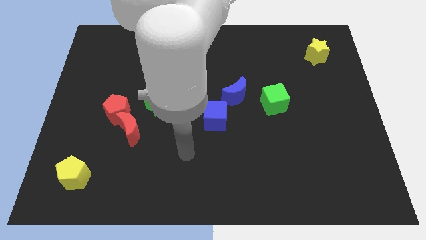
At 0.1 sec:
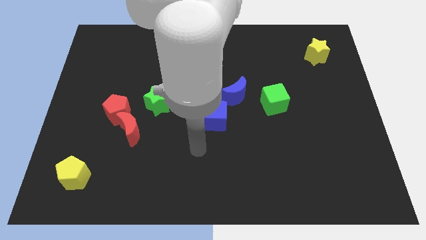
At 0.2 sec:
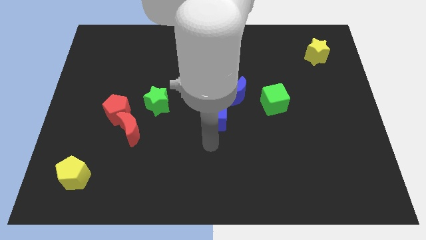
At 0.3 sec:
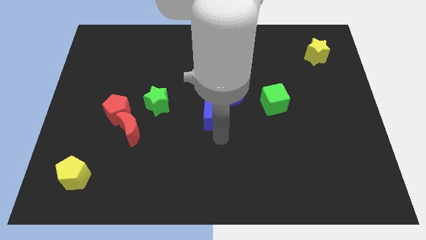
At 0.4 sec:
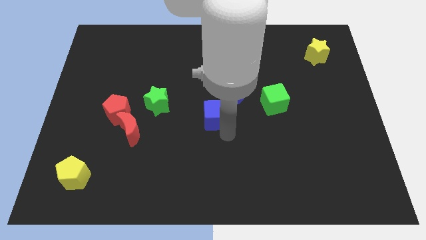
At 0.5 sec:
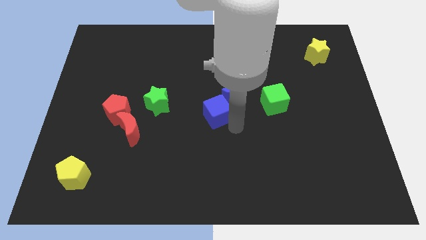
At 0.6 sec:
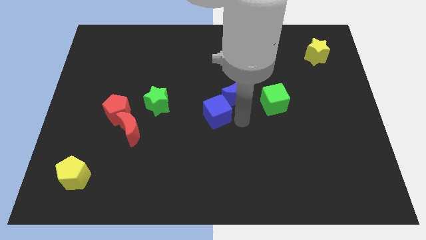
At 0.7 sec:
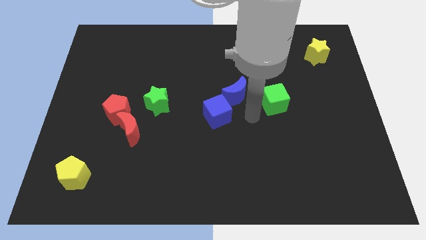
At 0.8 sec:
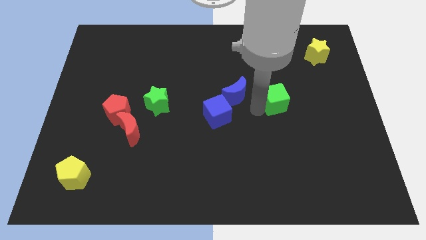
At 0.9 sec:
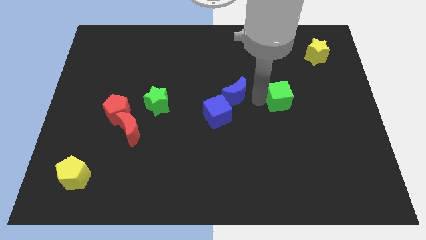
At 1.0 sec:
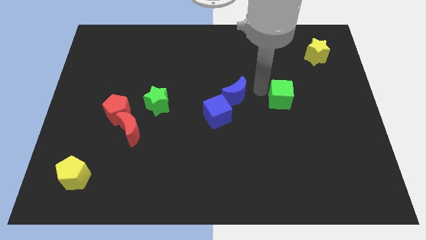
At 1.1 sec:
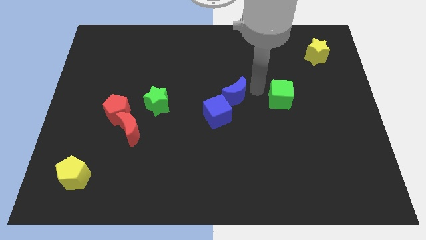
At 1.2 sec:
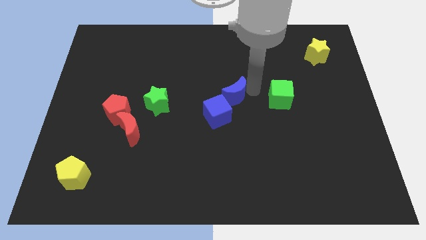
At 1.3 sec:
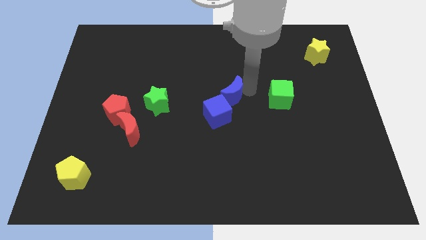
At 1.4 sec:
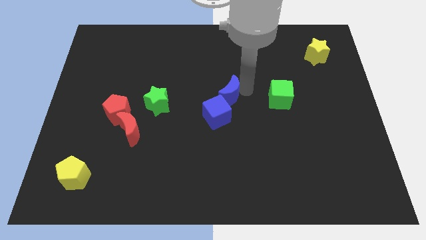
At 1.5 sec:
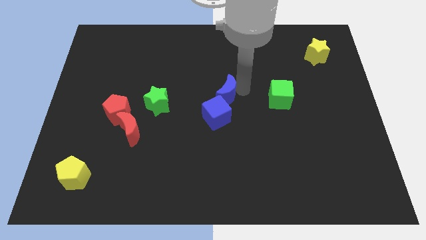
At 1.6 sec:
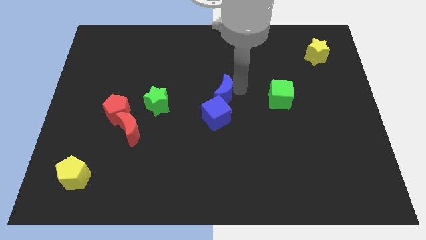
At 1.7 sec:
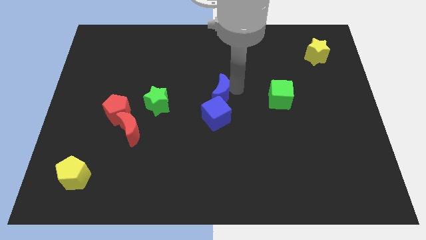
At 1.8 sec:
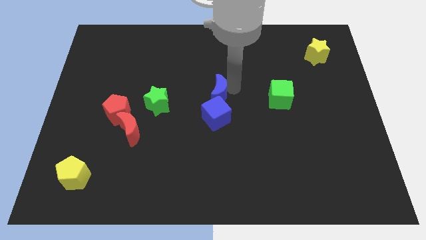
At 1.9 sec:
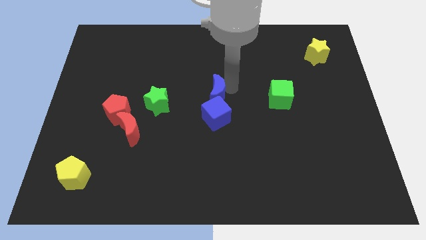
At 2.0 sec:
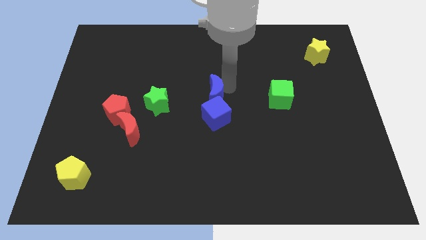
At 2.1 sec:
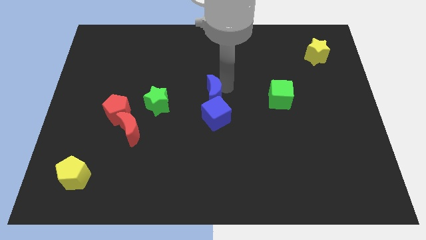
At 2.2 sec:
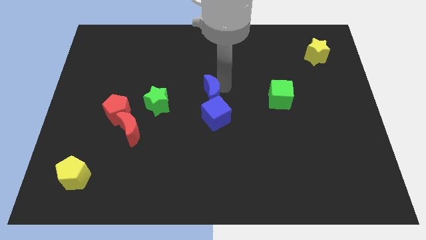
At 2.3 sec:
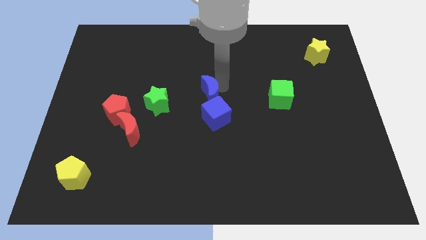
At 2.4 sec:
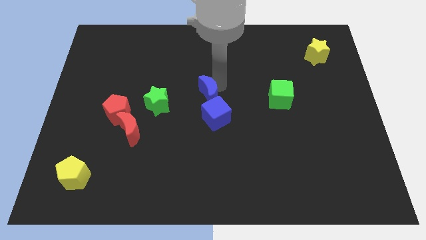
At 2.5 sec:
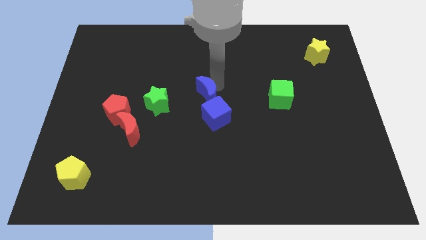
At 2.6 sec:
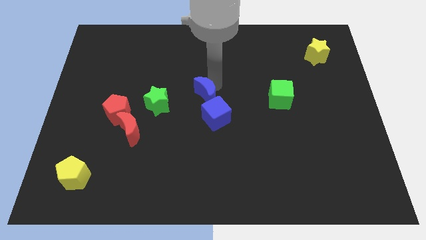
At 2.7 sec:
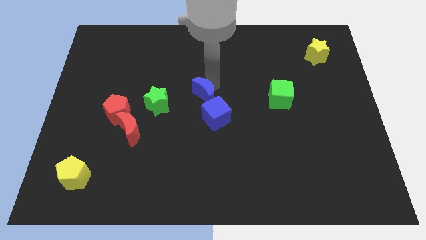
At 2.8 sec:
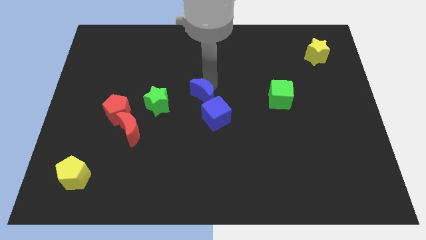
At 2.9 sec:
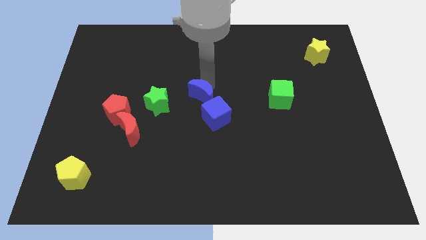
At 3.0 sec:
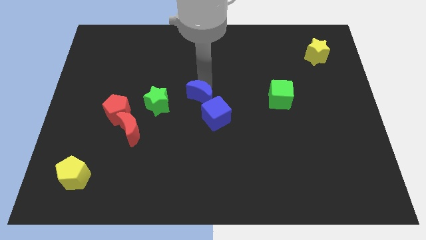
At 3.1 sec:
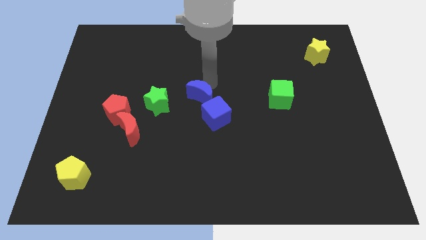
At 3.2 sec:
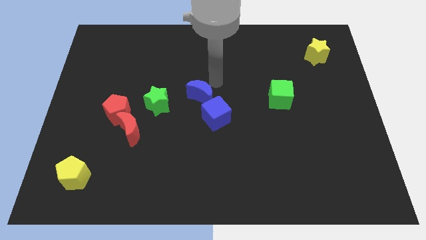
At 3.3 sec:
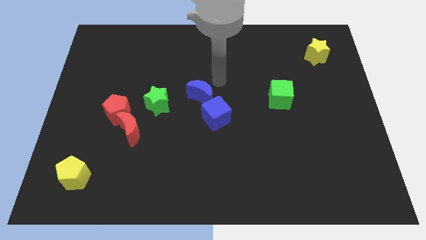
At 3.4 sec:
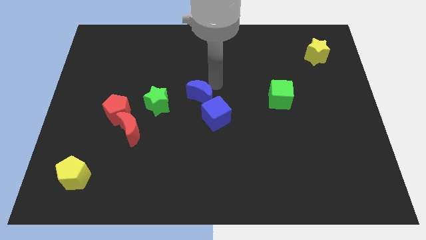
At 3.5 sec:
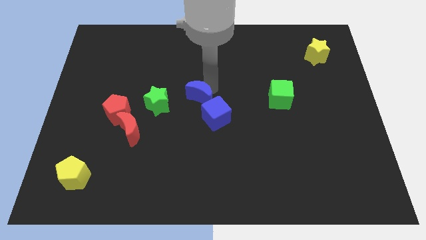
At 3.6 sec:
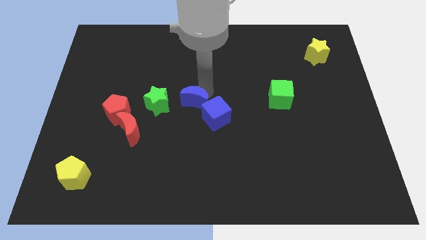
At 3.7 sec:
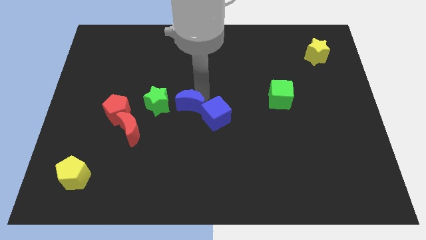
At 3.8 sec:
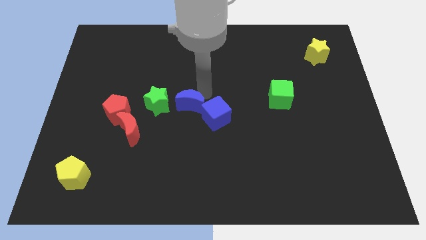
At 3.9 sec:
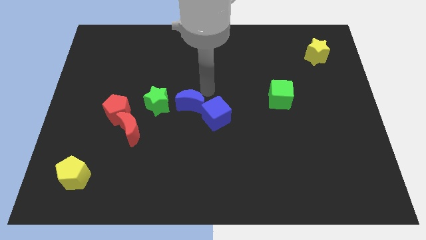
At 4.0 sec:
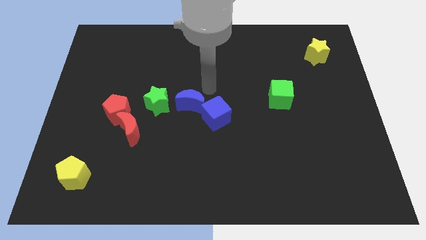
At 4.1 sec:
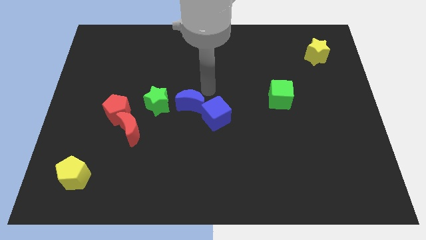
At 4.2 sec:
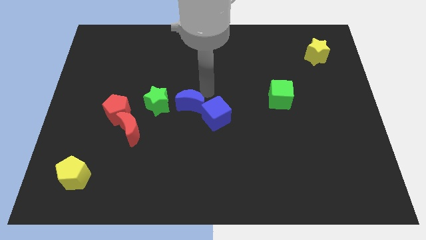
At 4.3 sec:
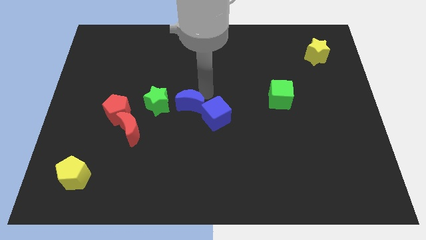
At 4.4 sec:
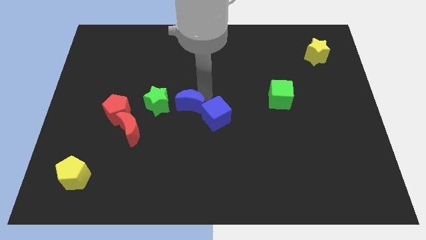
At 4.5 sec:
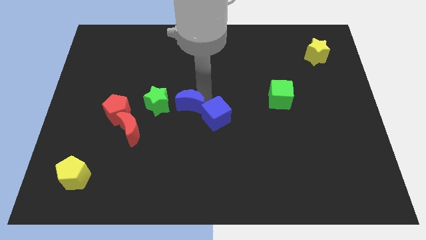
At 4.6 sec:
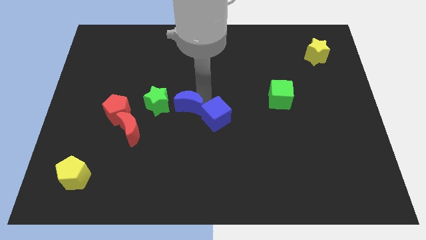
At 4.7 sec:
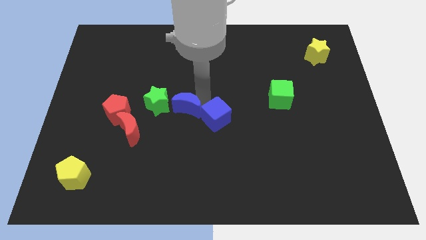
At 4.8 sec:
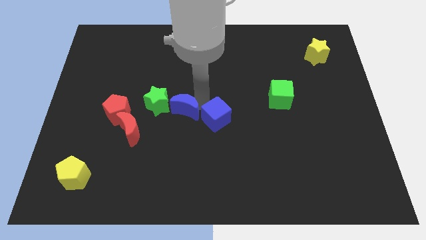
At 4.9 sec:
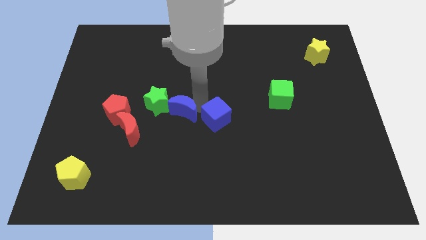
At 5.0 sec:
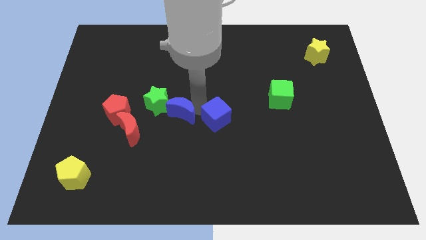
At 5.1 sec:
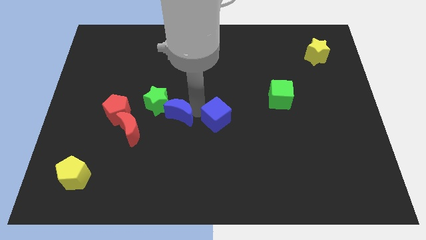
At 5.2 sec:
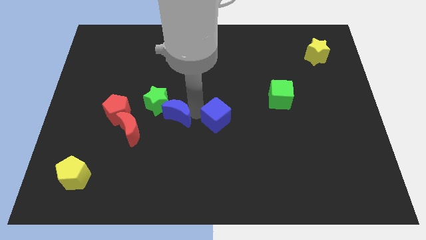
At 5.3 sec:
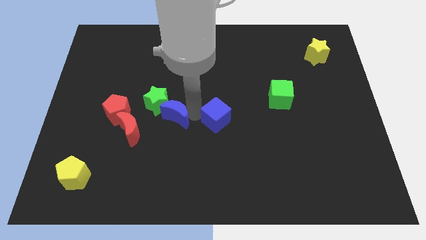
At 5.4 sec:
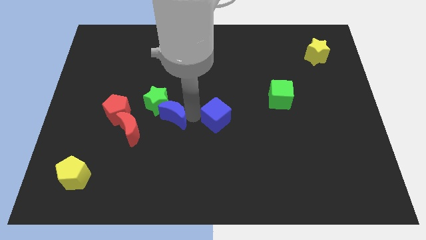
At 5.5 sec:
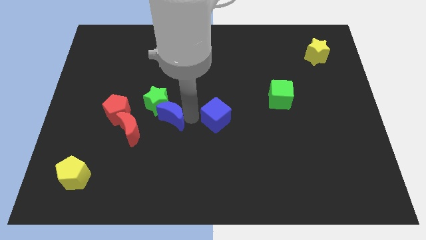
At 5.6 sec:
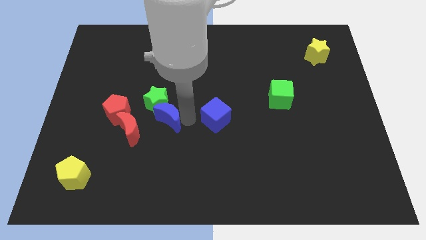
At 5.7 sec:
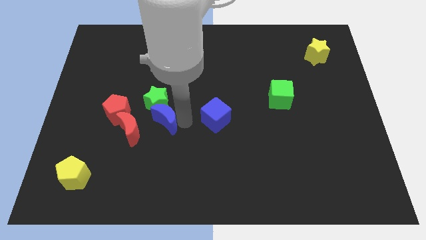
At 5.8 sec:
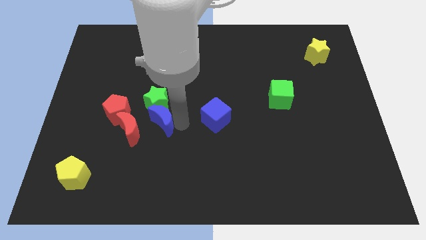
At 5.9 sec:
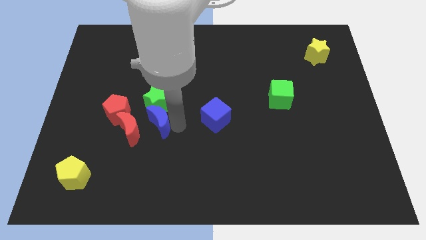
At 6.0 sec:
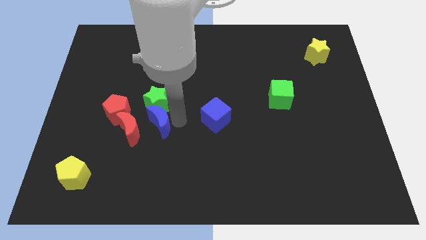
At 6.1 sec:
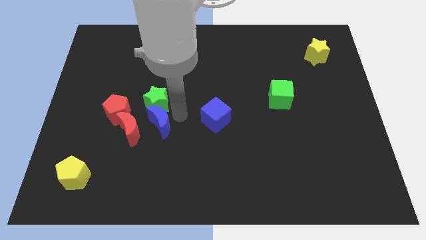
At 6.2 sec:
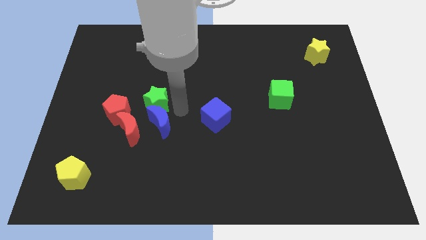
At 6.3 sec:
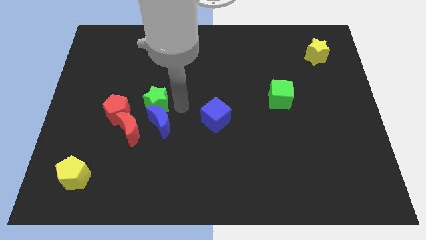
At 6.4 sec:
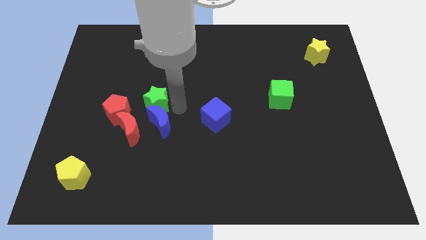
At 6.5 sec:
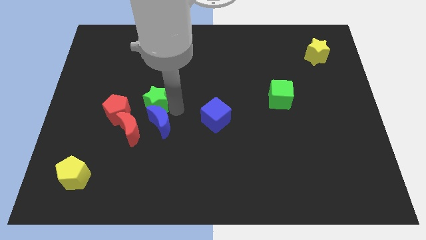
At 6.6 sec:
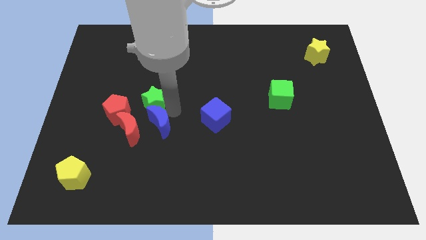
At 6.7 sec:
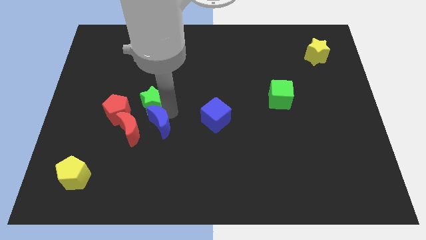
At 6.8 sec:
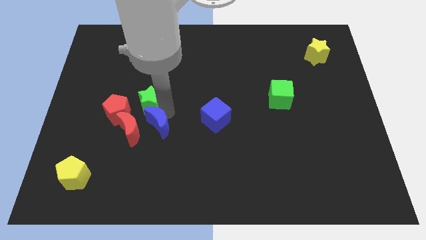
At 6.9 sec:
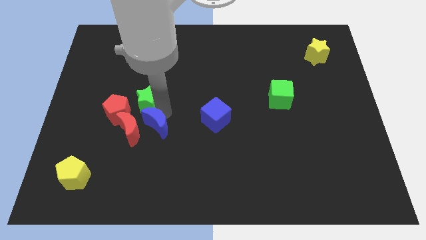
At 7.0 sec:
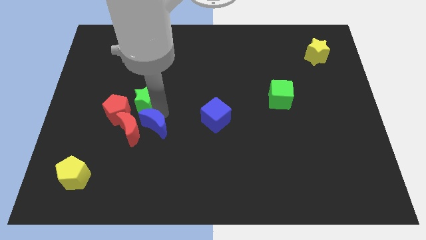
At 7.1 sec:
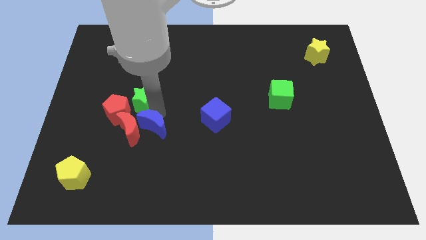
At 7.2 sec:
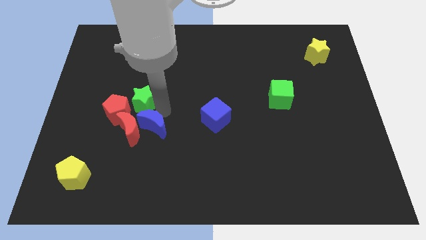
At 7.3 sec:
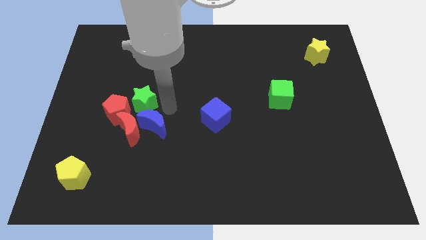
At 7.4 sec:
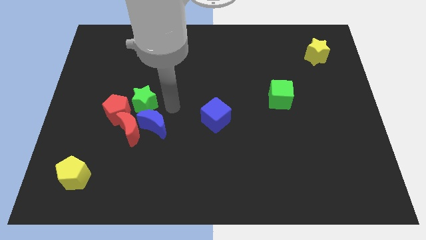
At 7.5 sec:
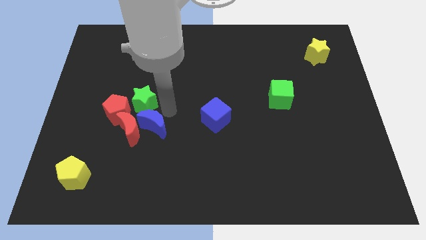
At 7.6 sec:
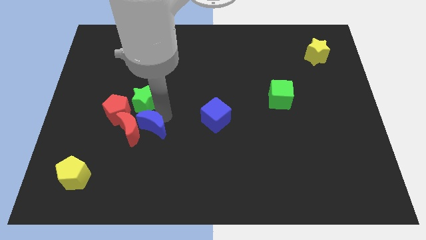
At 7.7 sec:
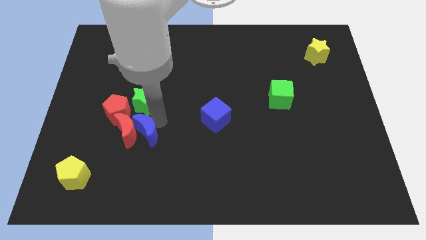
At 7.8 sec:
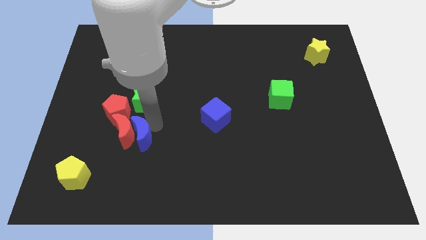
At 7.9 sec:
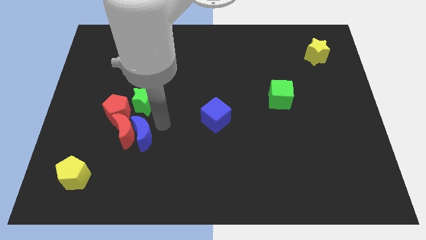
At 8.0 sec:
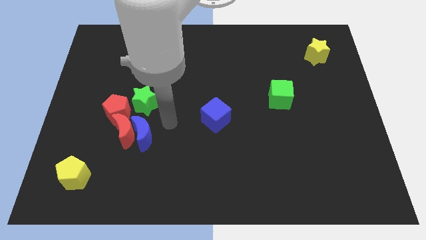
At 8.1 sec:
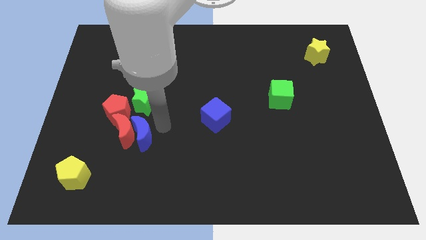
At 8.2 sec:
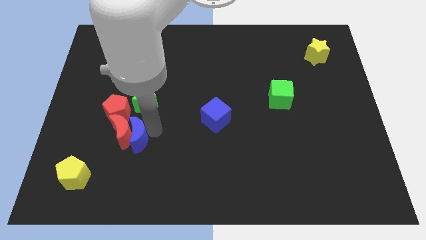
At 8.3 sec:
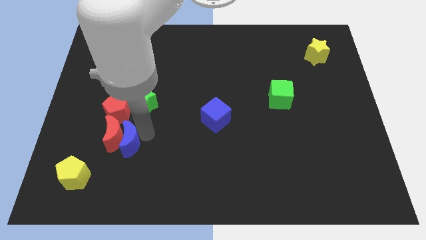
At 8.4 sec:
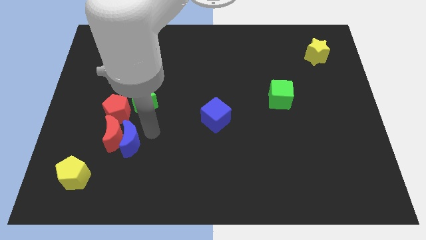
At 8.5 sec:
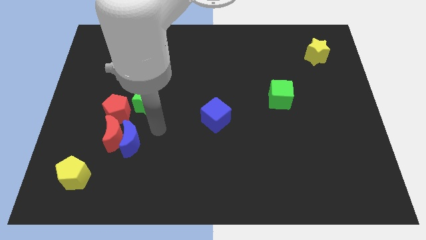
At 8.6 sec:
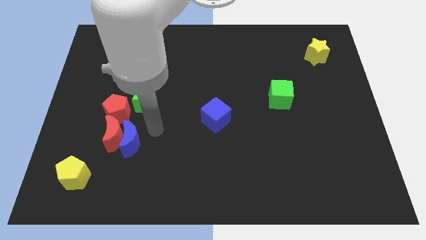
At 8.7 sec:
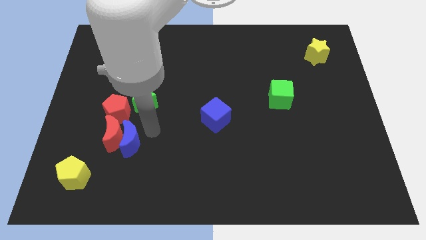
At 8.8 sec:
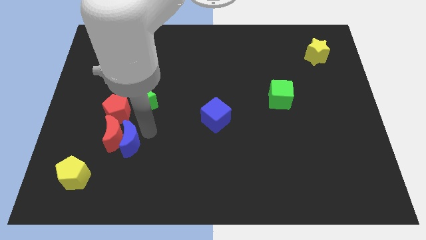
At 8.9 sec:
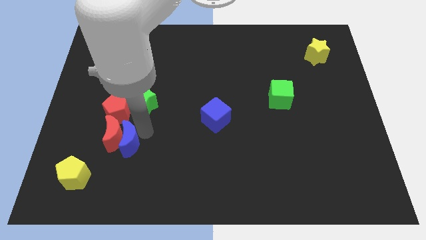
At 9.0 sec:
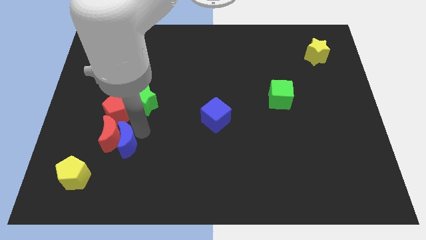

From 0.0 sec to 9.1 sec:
slide the blue moon to the top right side of the yellow pentagon
